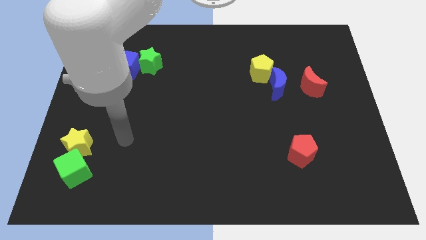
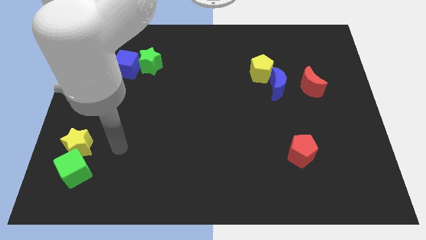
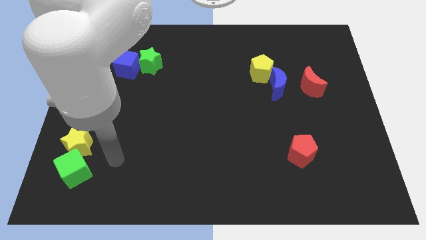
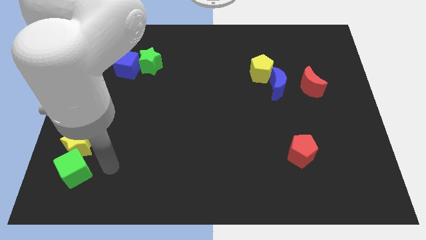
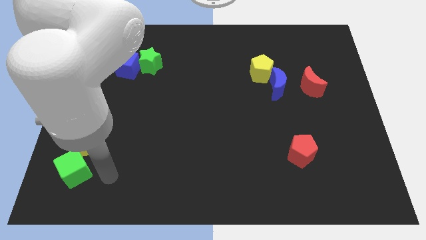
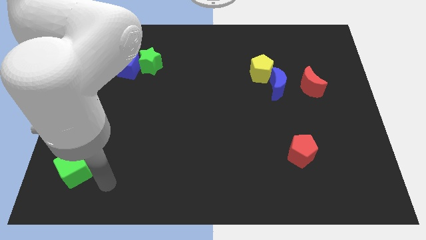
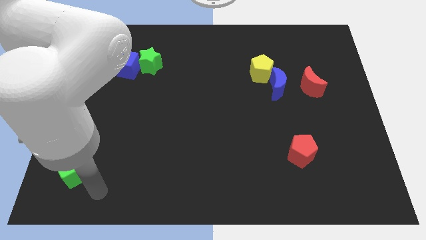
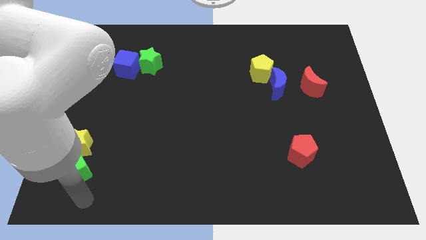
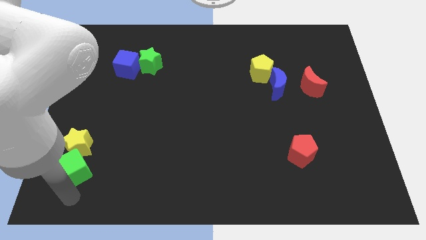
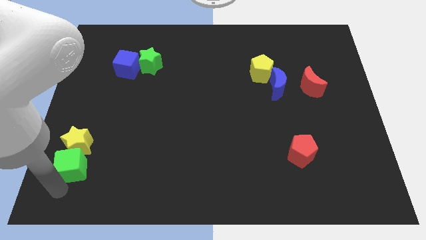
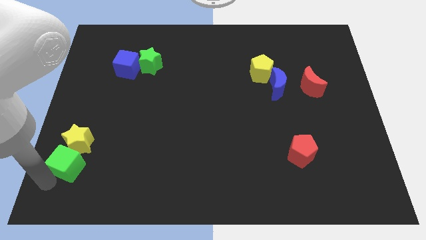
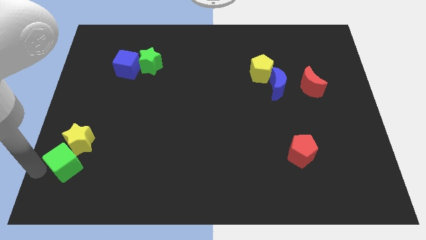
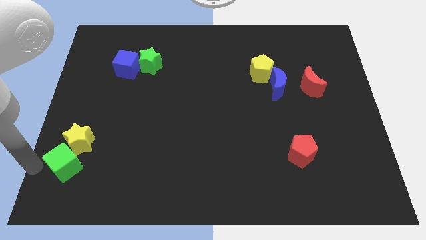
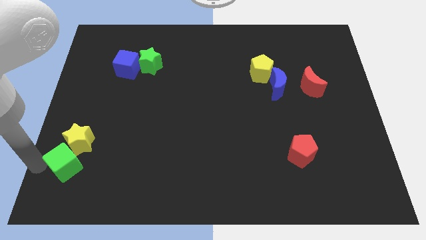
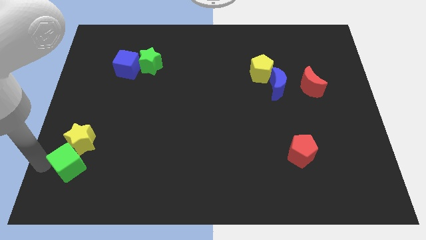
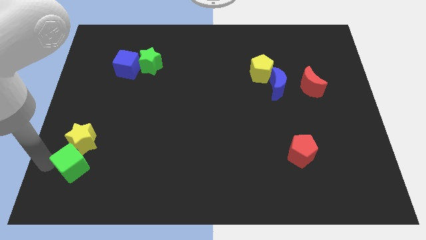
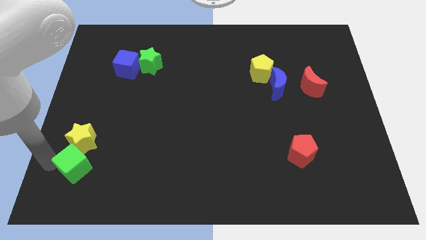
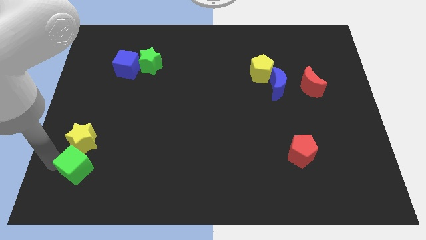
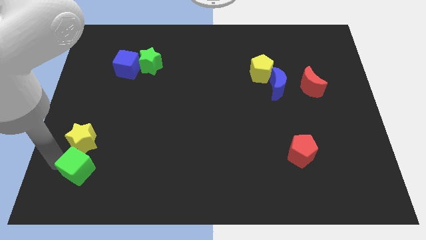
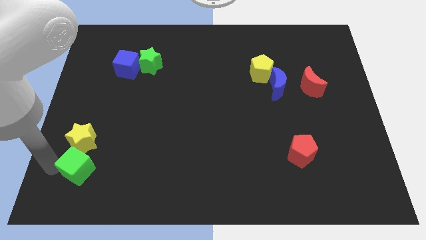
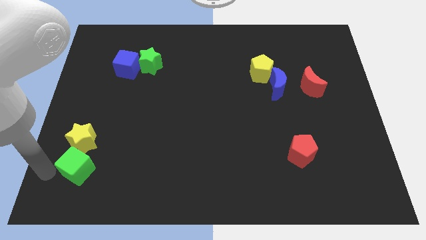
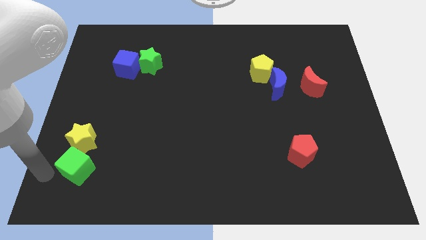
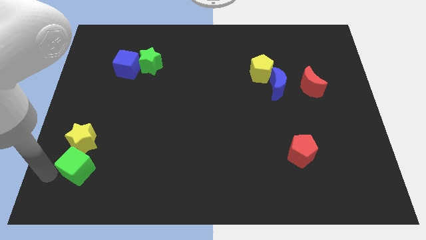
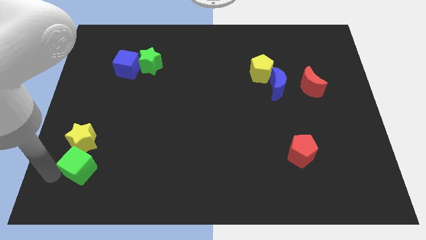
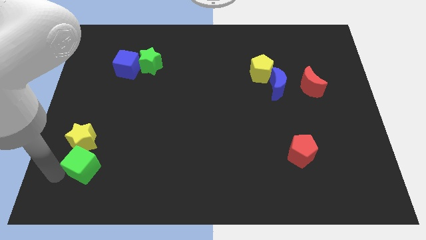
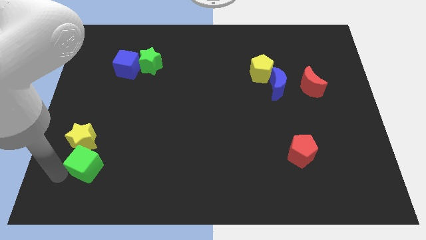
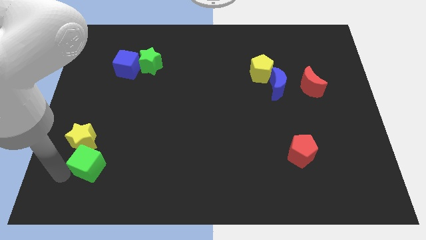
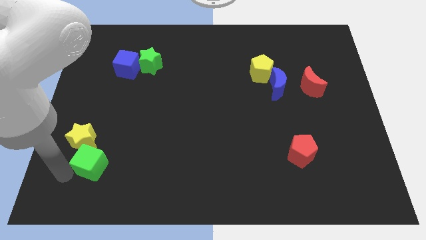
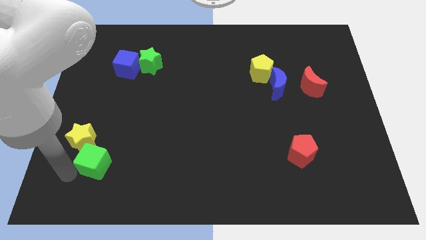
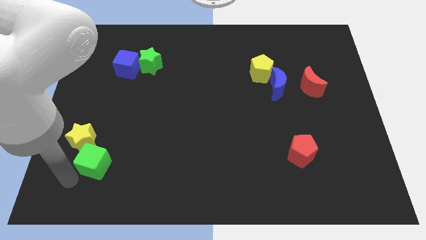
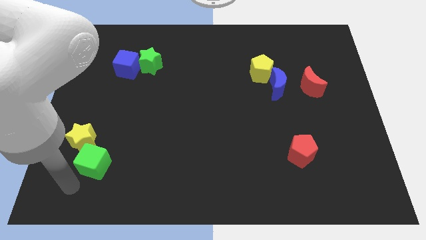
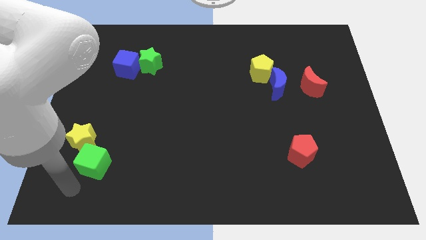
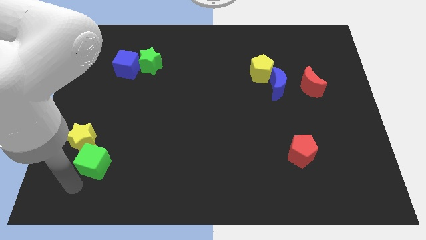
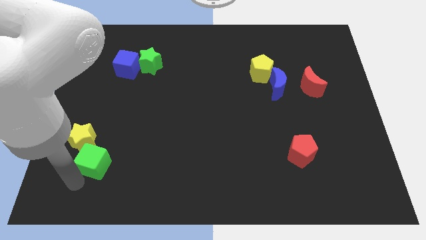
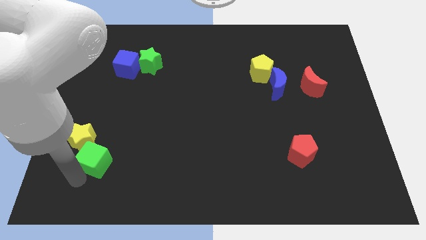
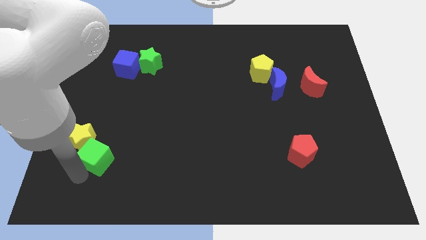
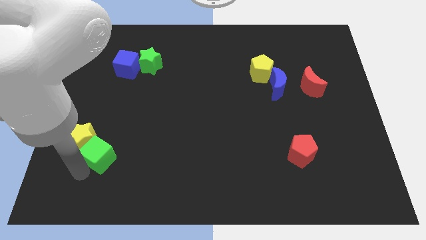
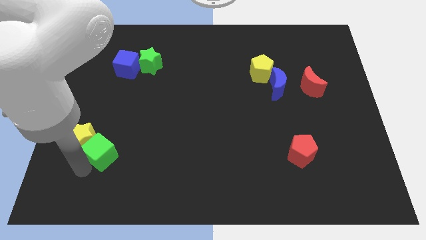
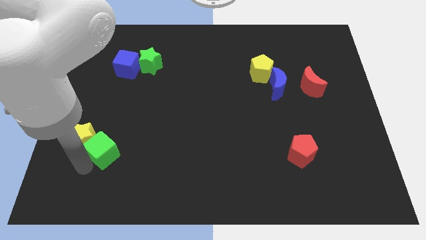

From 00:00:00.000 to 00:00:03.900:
slightly slide the green cube up and right

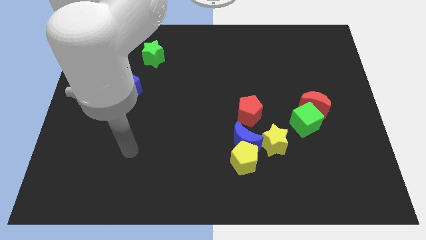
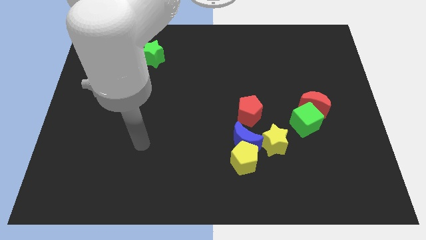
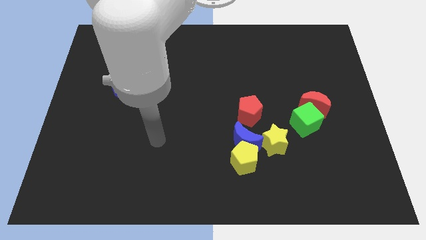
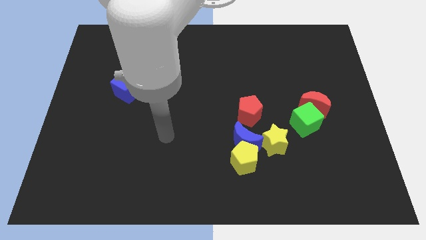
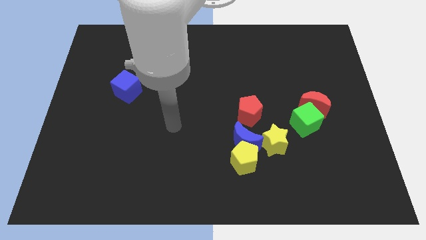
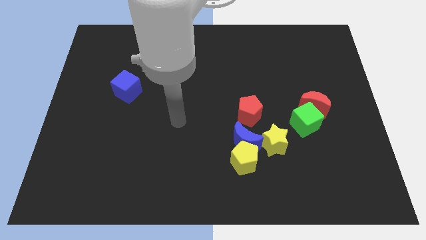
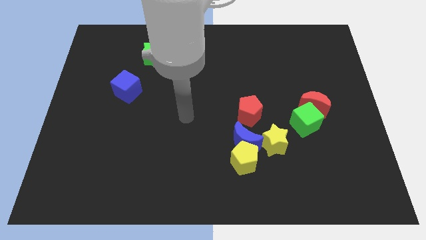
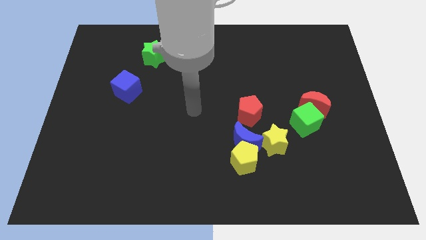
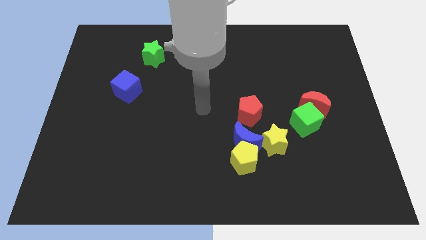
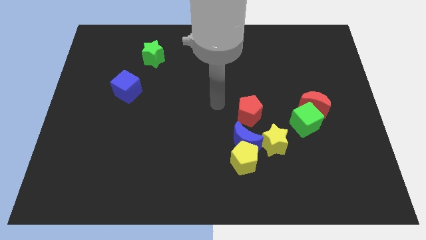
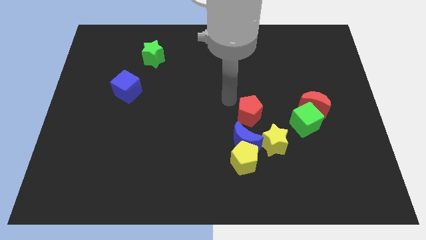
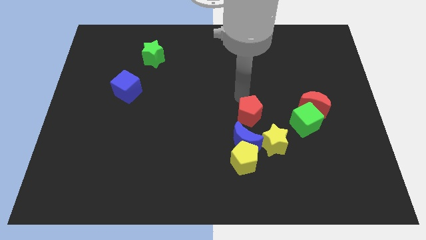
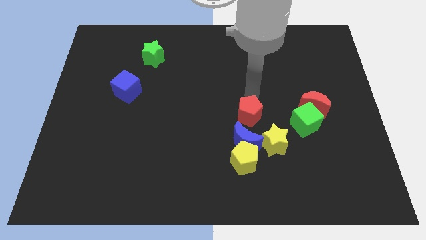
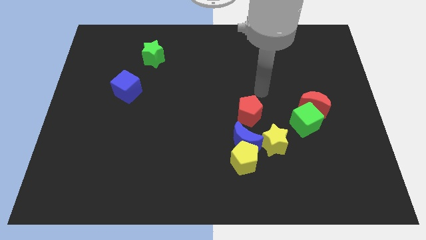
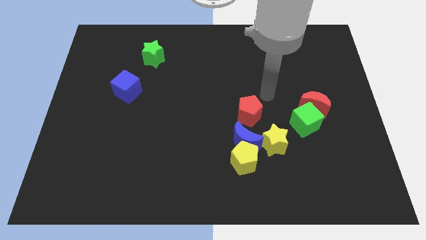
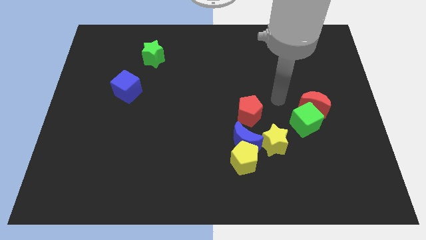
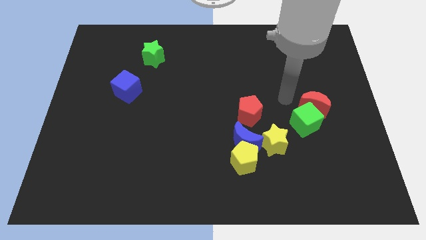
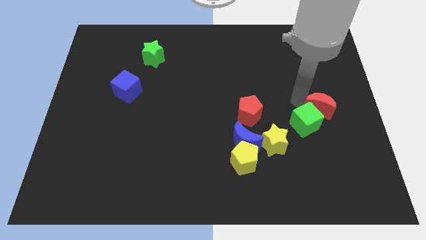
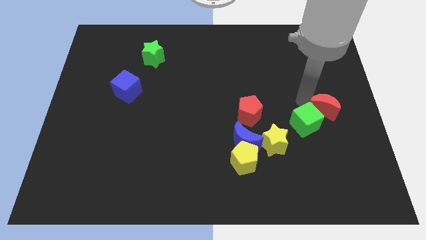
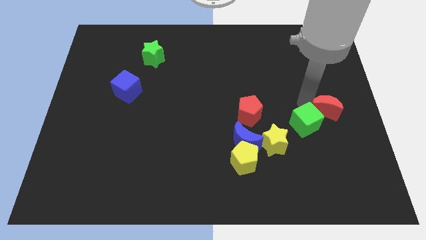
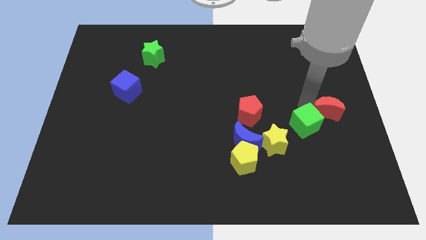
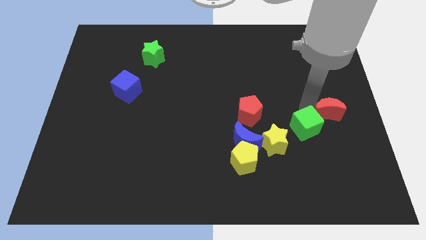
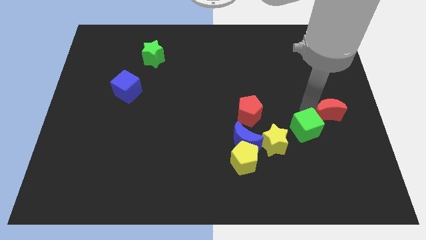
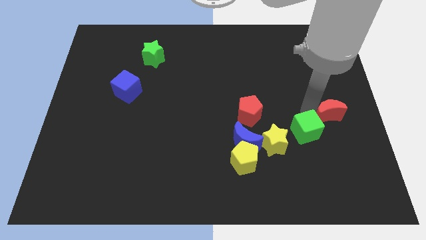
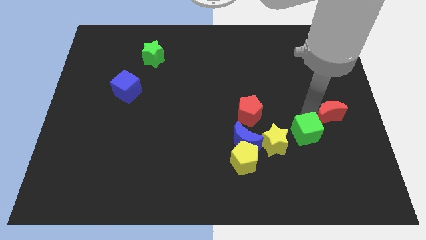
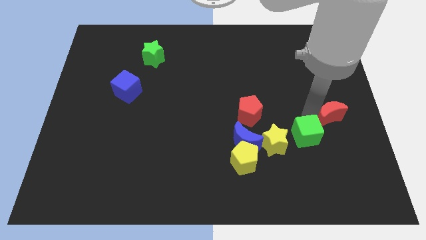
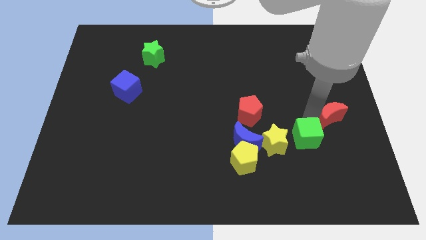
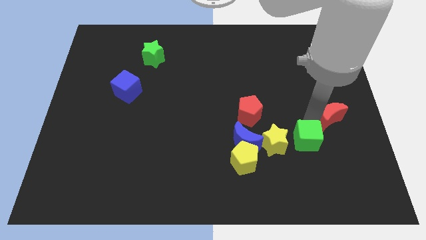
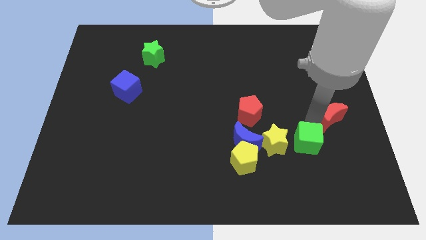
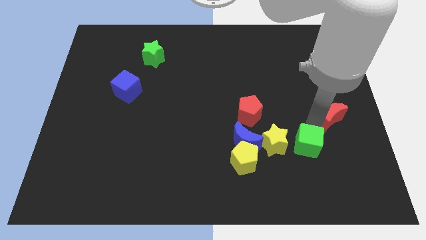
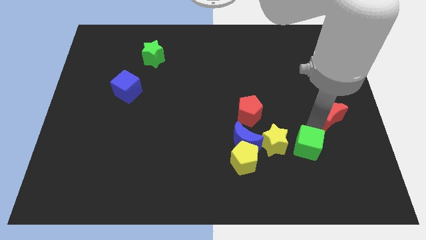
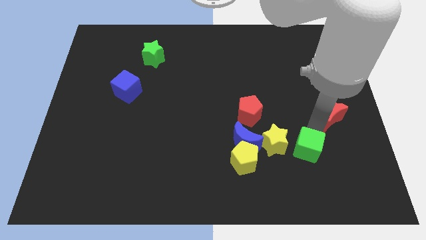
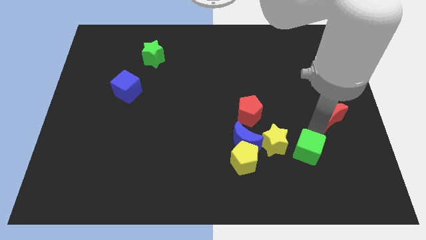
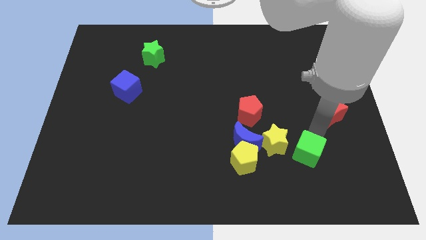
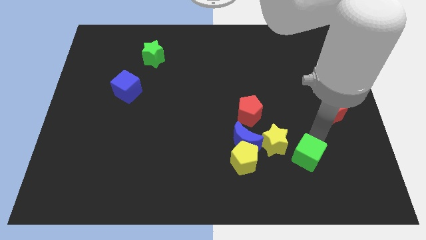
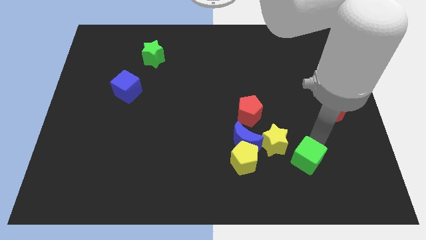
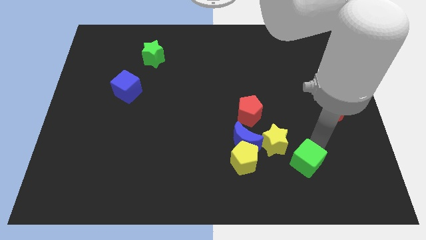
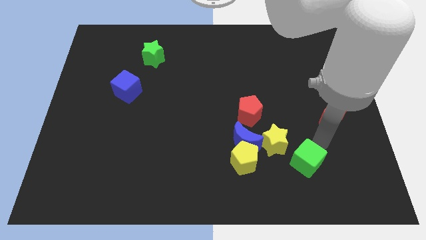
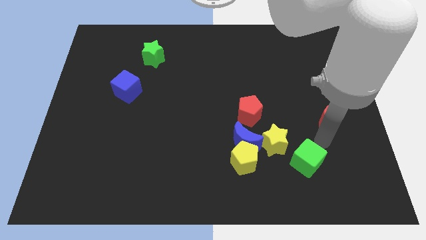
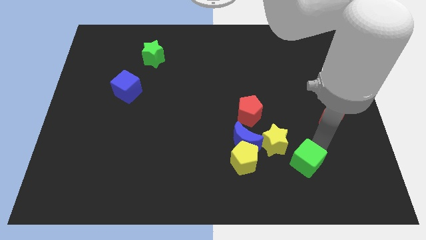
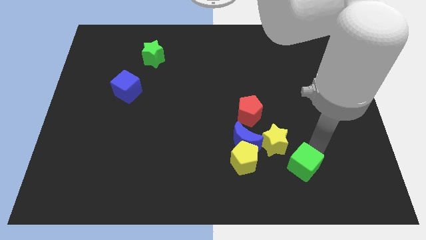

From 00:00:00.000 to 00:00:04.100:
push the green cube down and left somewhat
